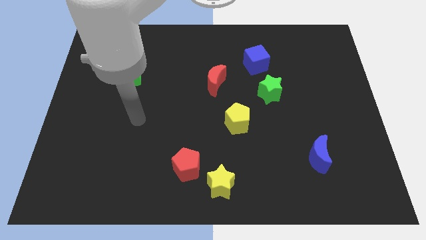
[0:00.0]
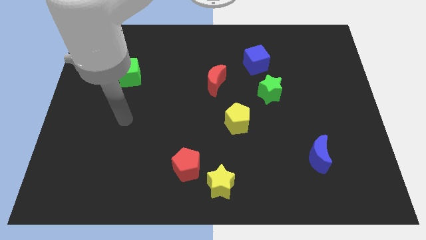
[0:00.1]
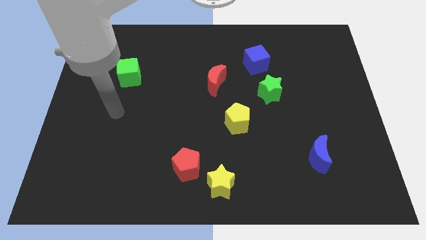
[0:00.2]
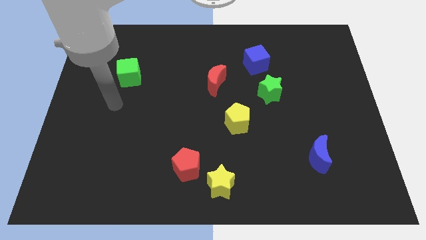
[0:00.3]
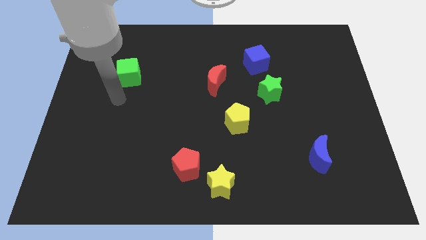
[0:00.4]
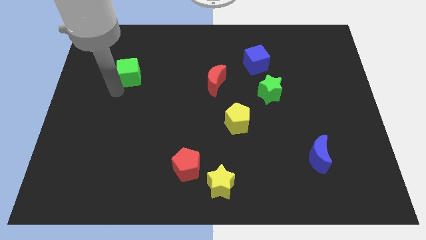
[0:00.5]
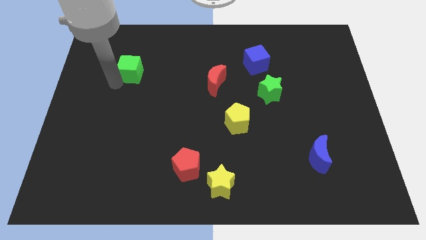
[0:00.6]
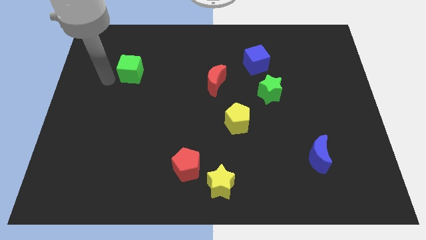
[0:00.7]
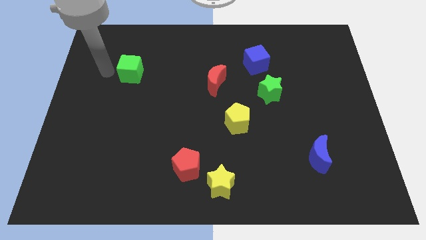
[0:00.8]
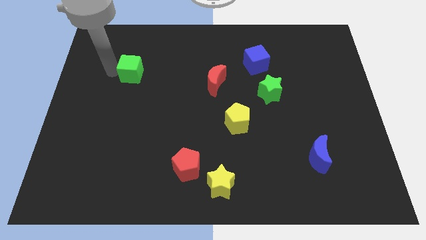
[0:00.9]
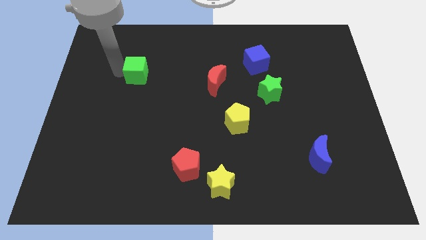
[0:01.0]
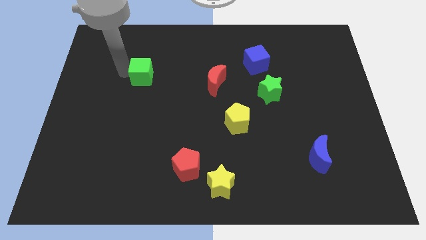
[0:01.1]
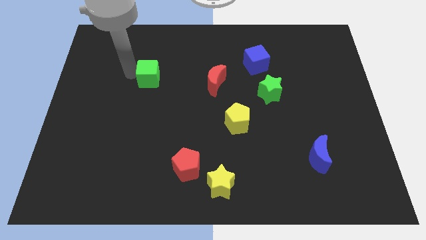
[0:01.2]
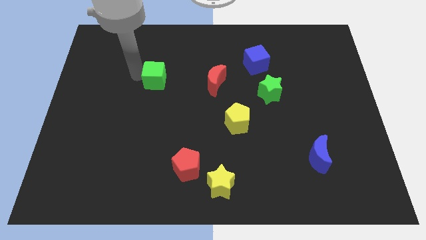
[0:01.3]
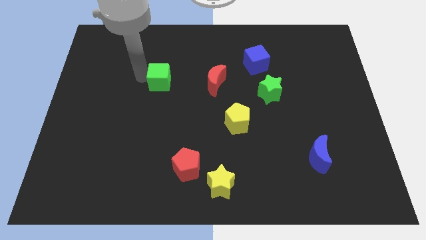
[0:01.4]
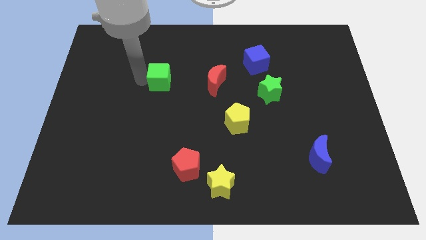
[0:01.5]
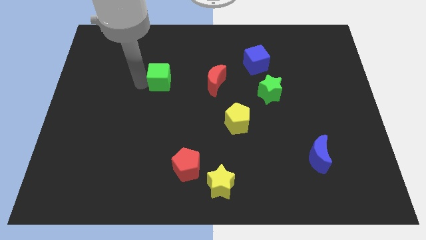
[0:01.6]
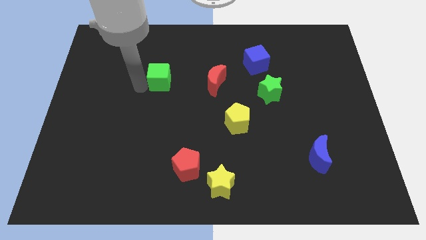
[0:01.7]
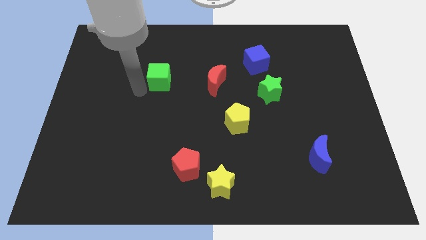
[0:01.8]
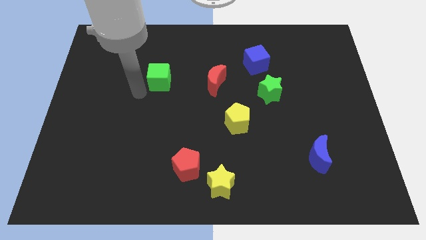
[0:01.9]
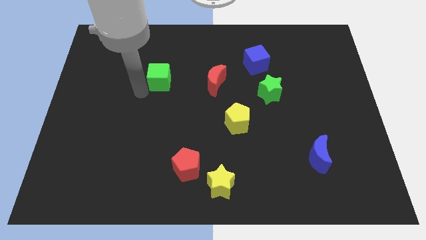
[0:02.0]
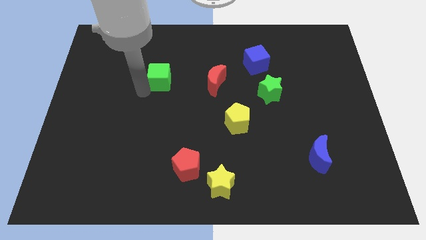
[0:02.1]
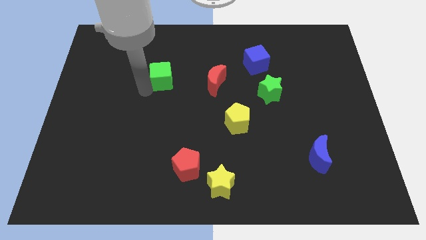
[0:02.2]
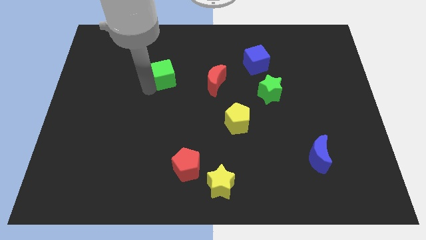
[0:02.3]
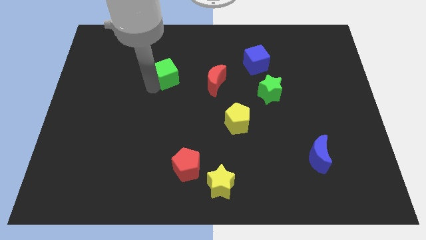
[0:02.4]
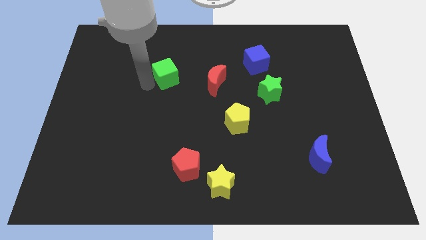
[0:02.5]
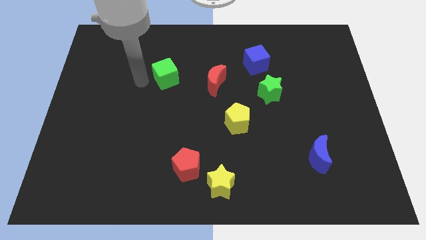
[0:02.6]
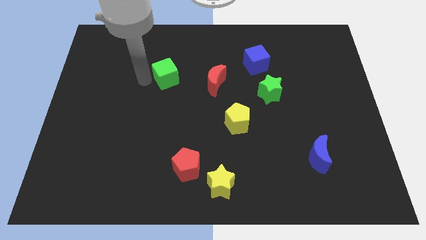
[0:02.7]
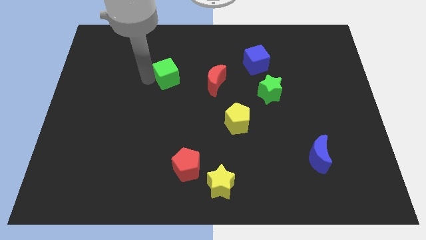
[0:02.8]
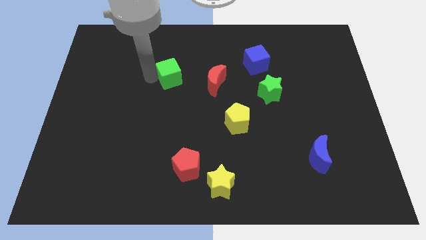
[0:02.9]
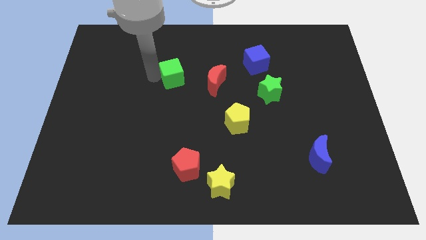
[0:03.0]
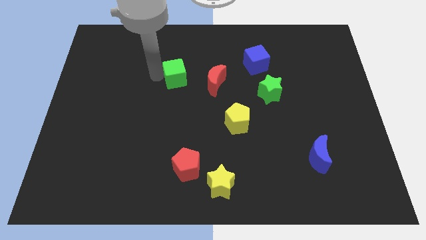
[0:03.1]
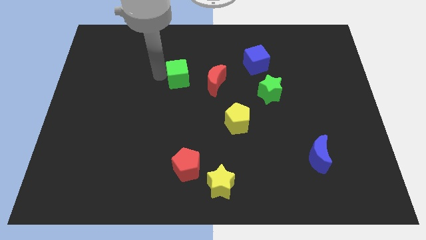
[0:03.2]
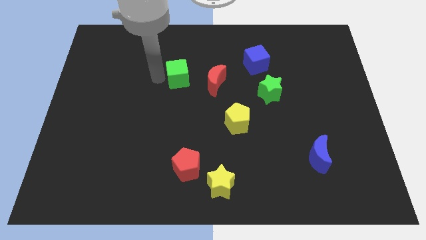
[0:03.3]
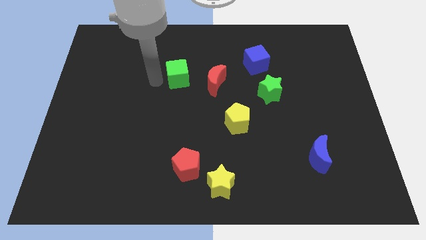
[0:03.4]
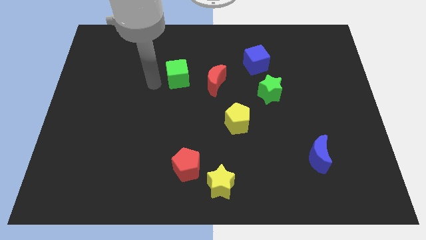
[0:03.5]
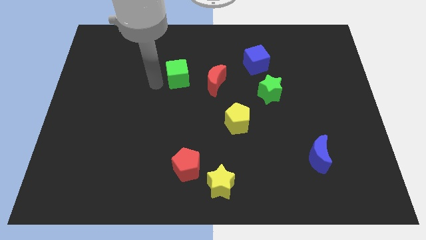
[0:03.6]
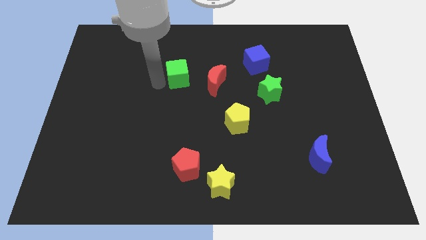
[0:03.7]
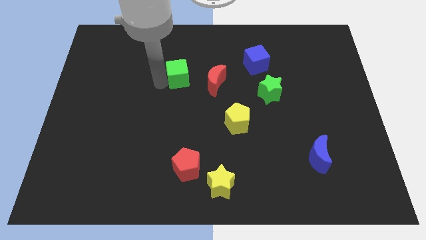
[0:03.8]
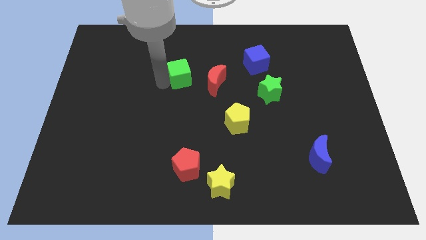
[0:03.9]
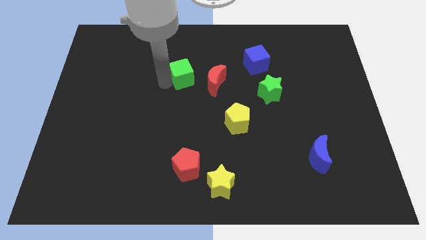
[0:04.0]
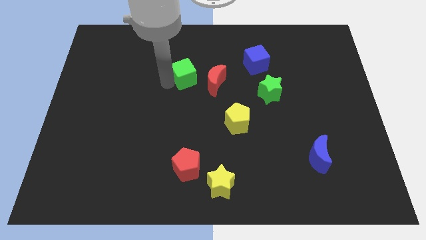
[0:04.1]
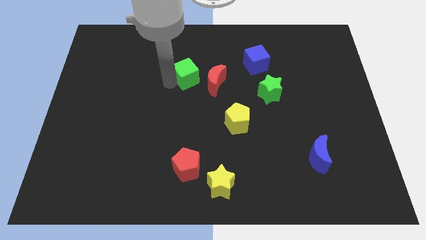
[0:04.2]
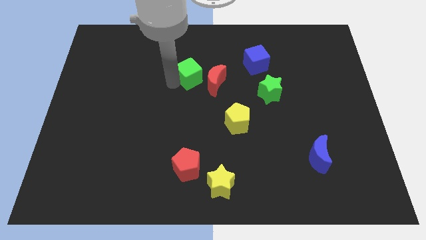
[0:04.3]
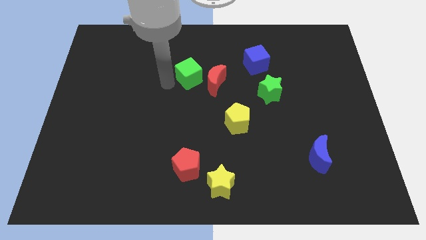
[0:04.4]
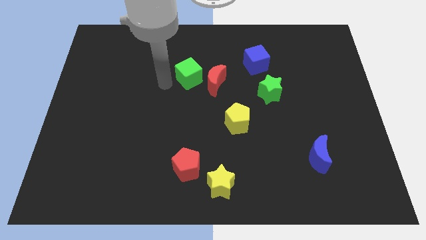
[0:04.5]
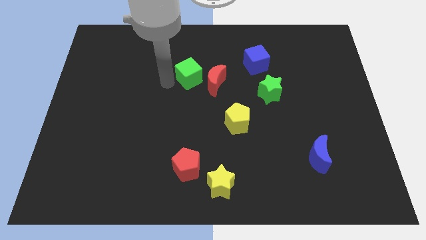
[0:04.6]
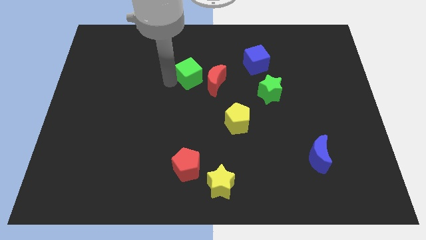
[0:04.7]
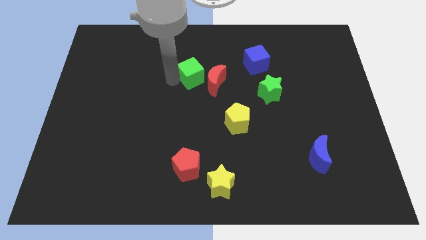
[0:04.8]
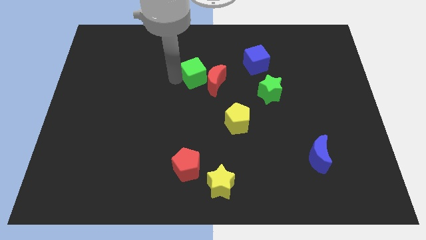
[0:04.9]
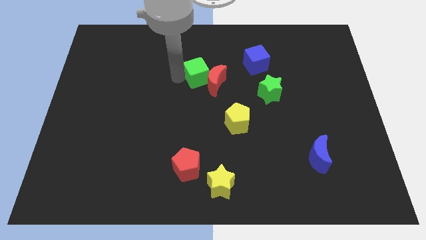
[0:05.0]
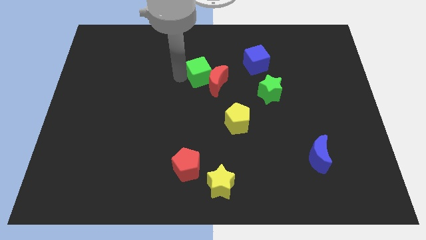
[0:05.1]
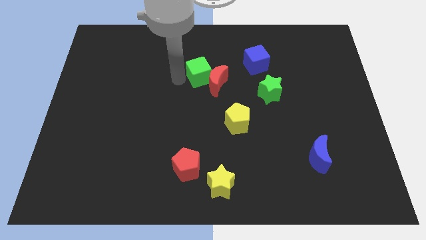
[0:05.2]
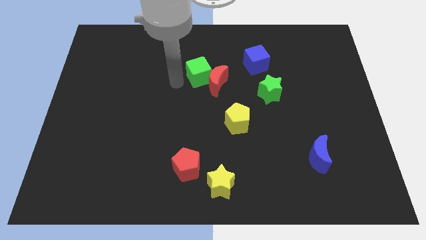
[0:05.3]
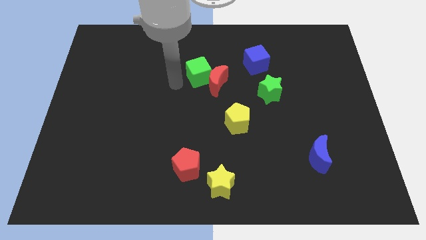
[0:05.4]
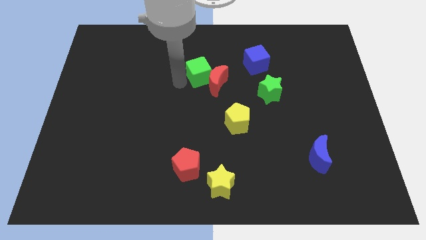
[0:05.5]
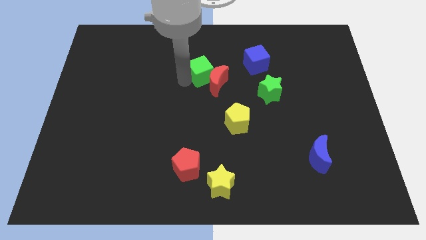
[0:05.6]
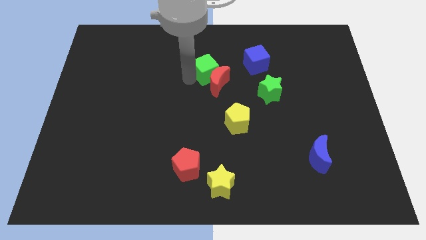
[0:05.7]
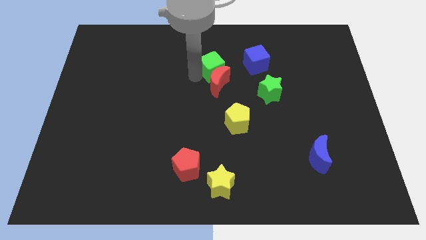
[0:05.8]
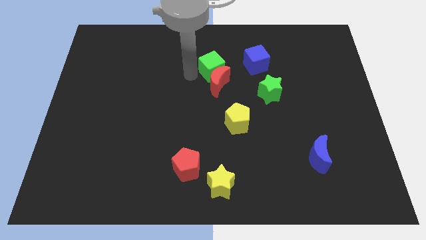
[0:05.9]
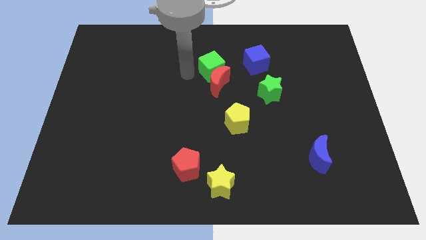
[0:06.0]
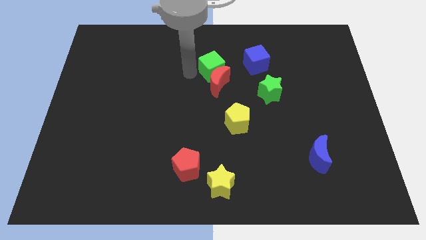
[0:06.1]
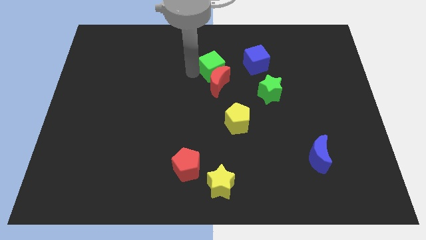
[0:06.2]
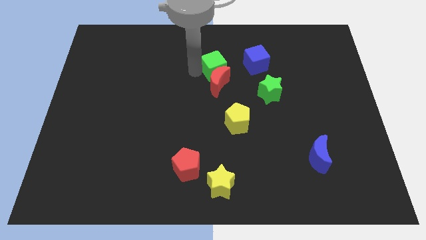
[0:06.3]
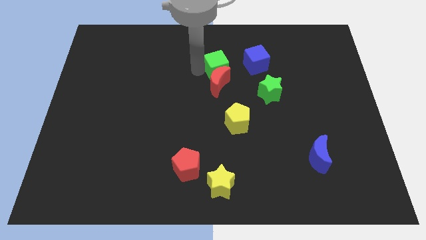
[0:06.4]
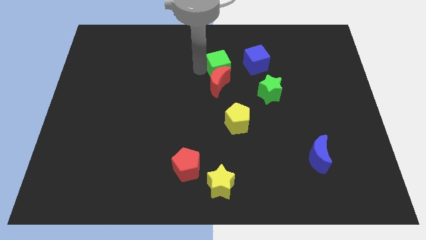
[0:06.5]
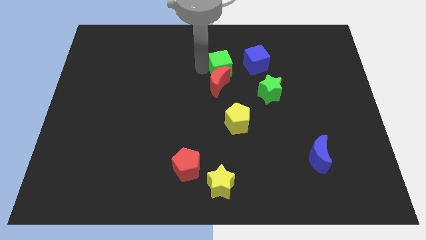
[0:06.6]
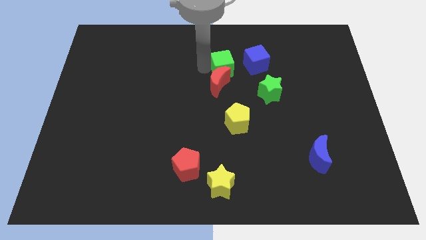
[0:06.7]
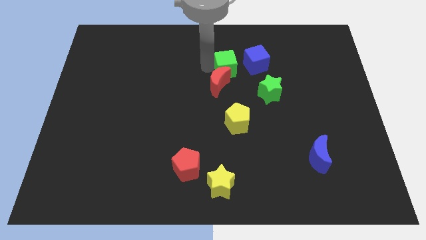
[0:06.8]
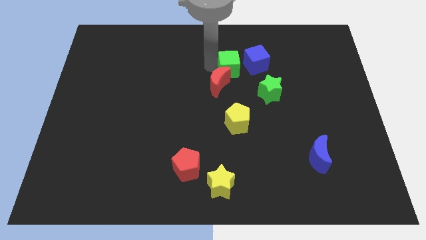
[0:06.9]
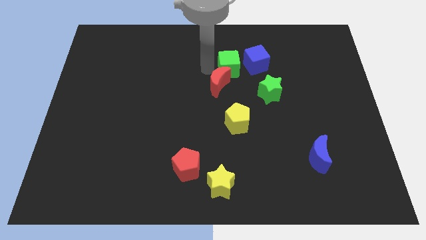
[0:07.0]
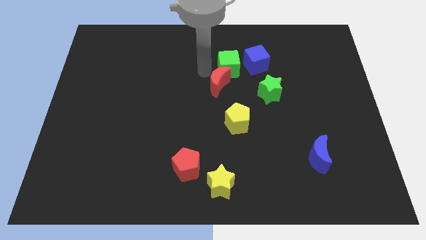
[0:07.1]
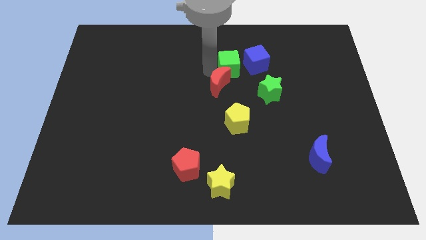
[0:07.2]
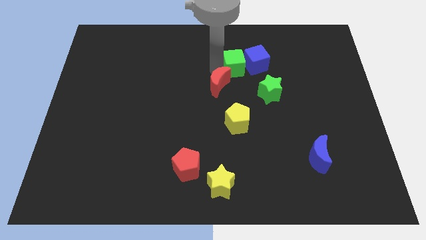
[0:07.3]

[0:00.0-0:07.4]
put the green cube close to the blue cube
